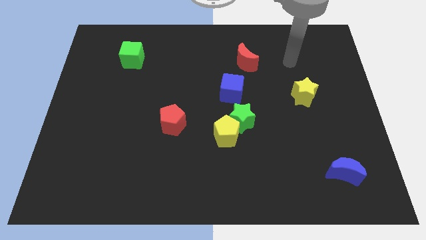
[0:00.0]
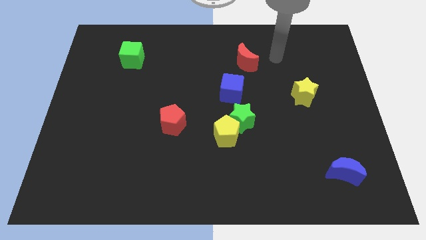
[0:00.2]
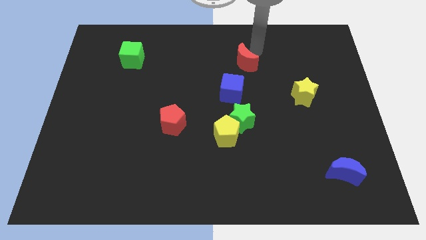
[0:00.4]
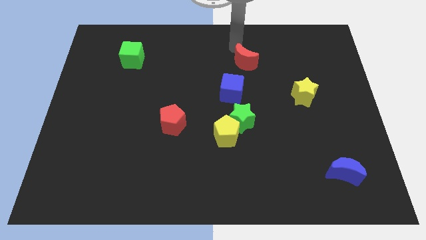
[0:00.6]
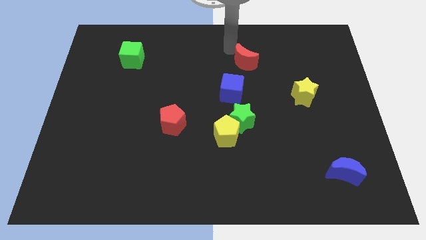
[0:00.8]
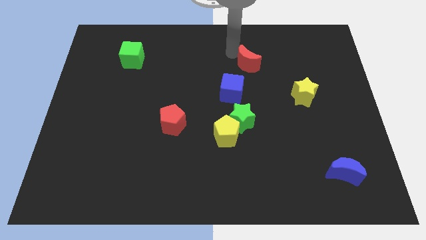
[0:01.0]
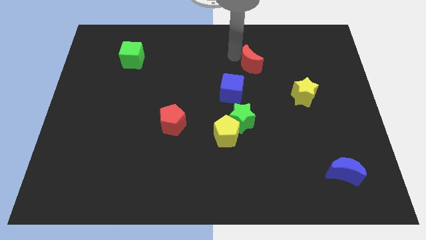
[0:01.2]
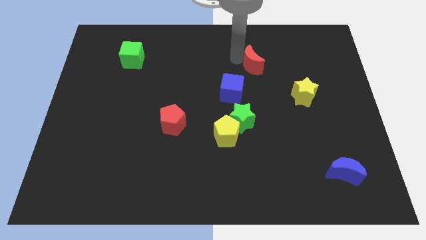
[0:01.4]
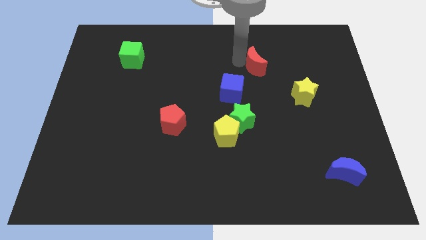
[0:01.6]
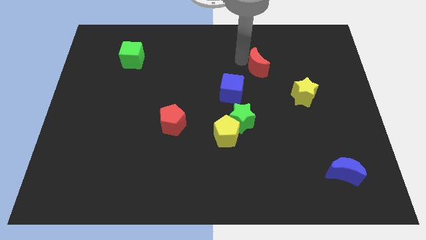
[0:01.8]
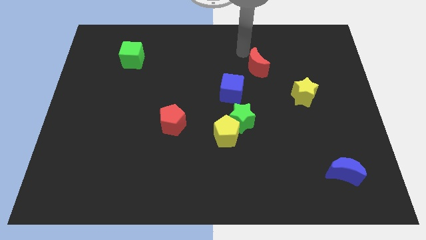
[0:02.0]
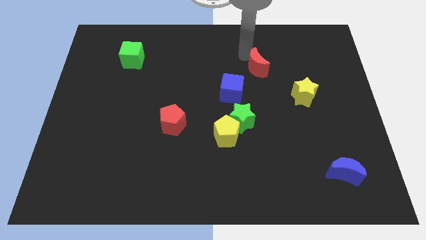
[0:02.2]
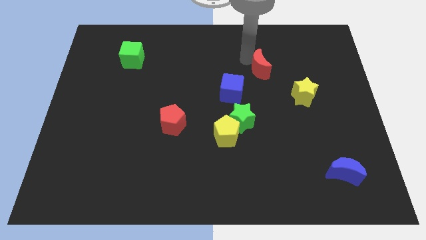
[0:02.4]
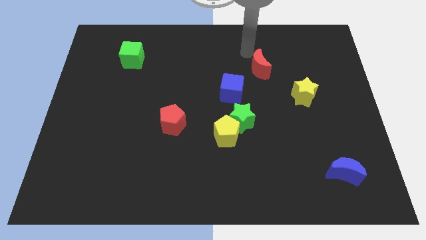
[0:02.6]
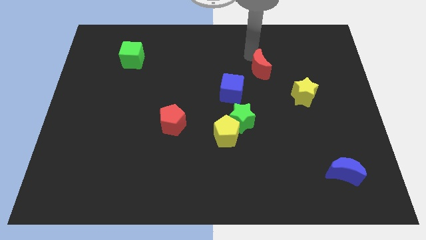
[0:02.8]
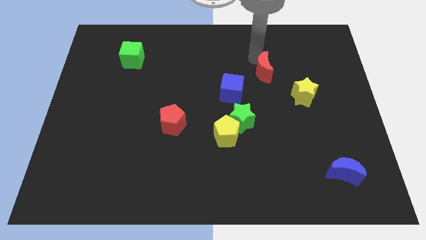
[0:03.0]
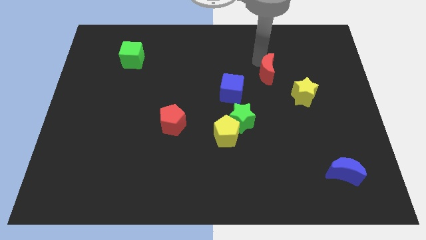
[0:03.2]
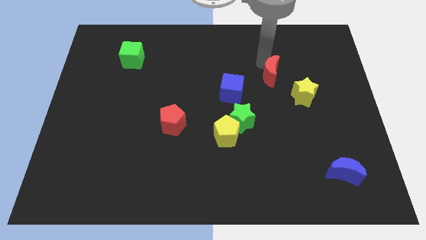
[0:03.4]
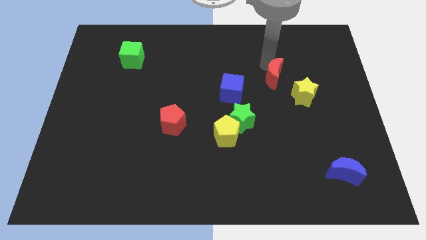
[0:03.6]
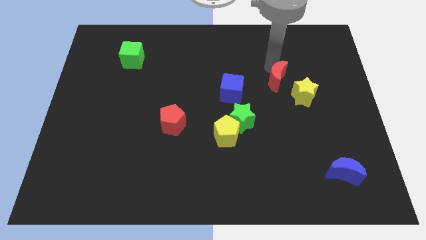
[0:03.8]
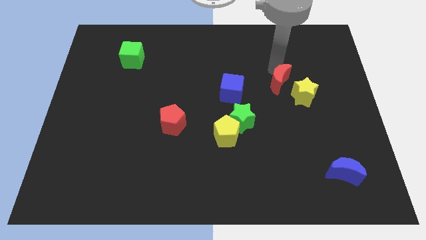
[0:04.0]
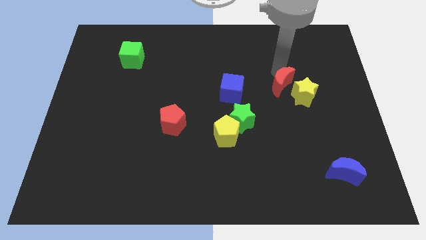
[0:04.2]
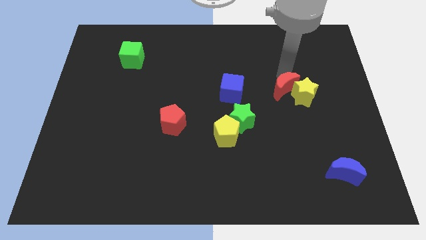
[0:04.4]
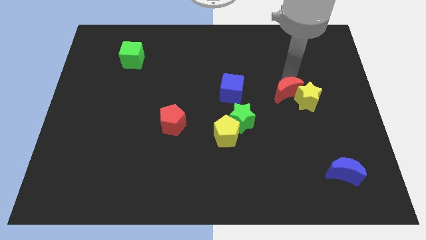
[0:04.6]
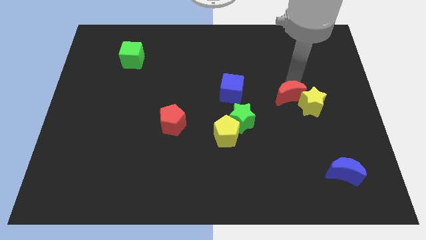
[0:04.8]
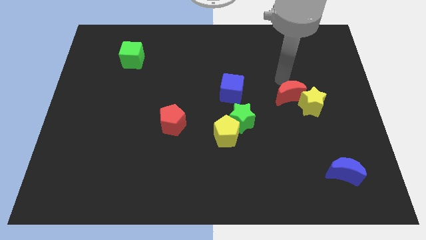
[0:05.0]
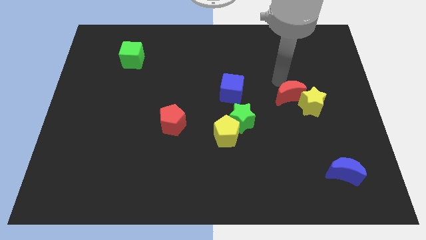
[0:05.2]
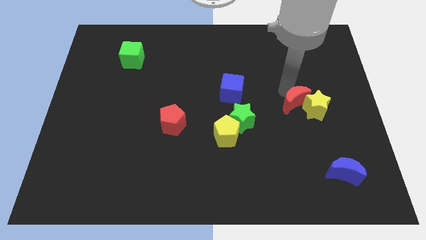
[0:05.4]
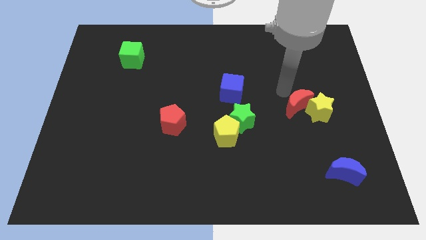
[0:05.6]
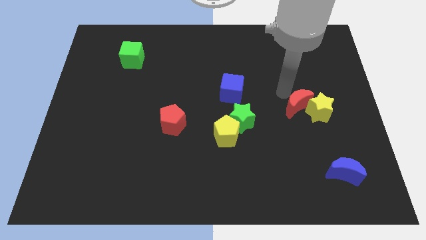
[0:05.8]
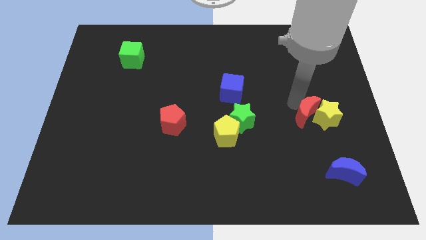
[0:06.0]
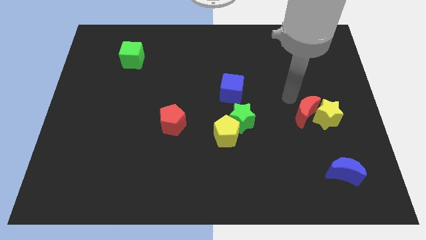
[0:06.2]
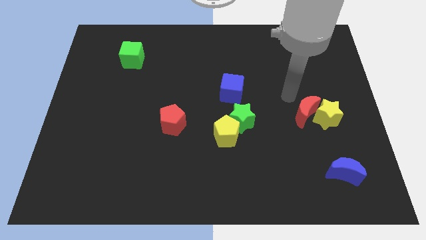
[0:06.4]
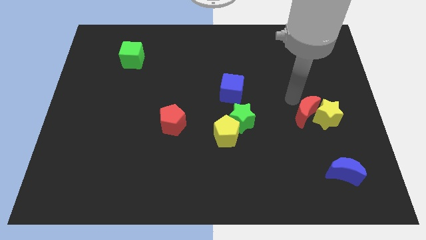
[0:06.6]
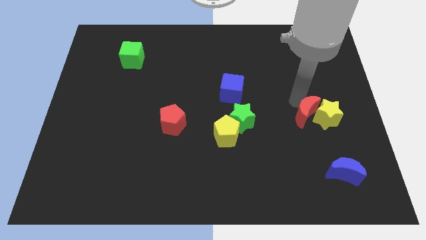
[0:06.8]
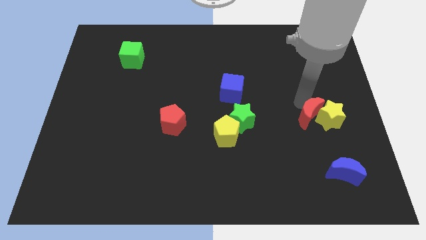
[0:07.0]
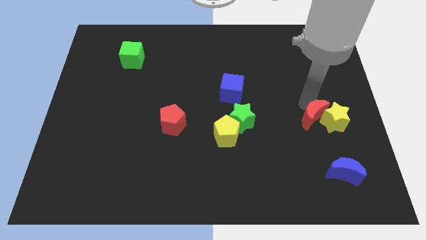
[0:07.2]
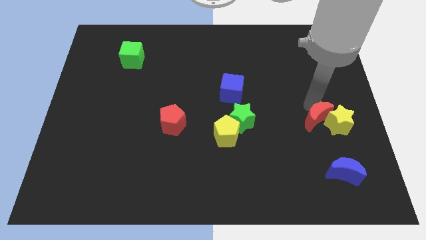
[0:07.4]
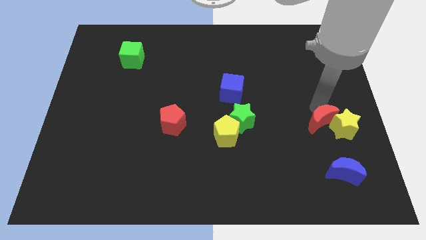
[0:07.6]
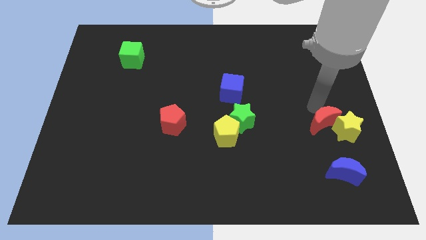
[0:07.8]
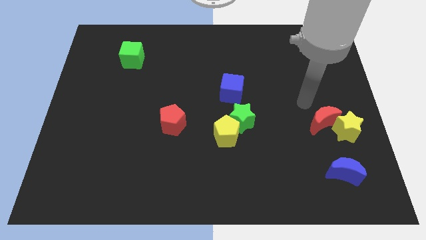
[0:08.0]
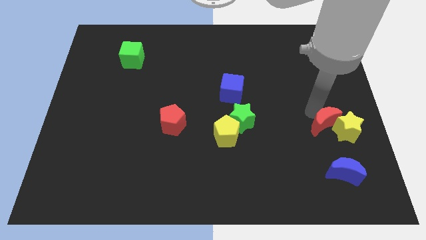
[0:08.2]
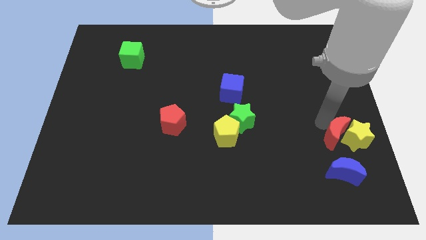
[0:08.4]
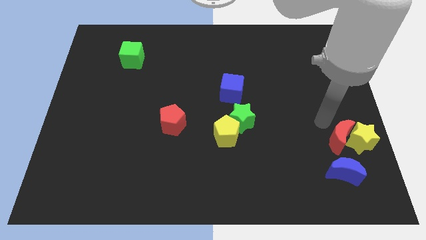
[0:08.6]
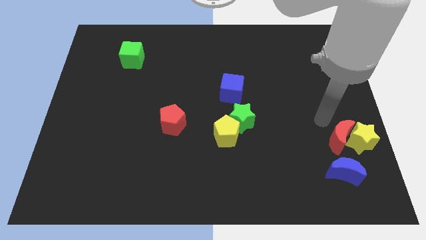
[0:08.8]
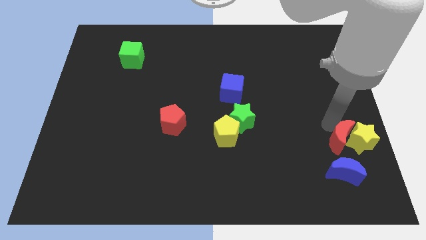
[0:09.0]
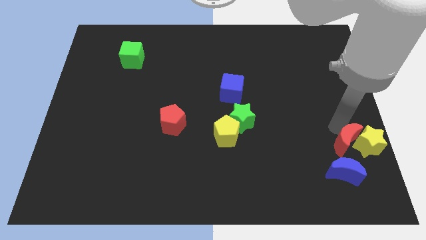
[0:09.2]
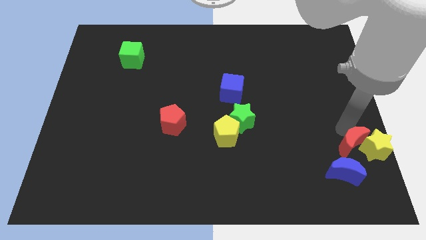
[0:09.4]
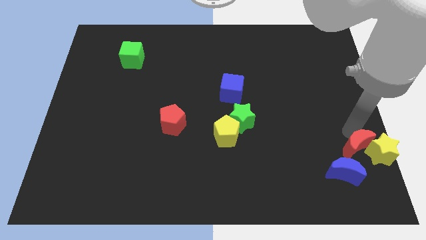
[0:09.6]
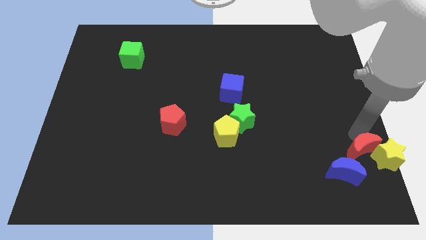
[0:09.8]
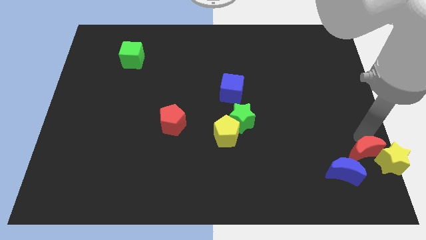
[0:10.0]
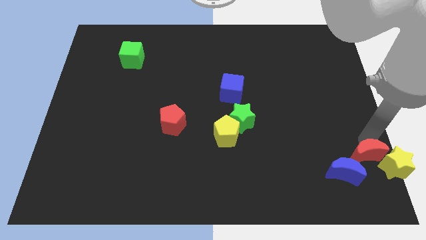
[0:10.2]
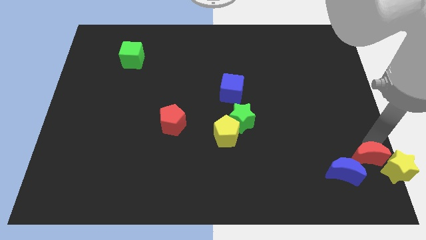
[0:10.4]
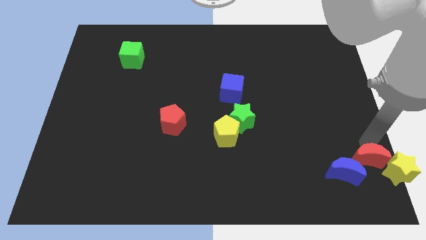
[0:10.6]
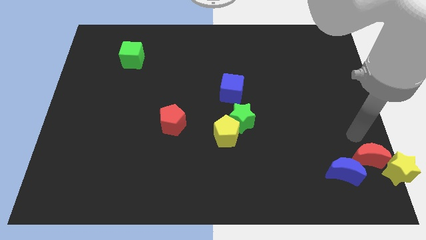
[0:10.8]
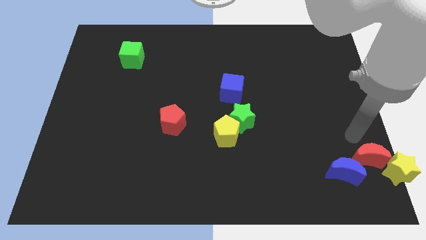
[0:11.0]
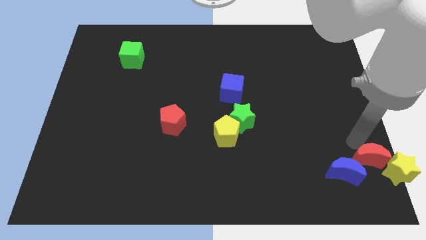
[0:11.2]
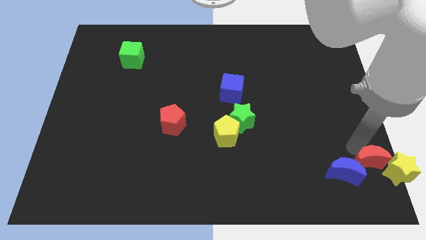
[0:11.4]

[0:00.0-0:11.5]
put the red moon to the lower right corner
